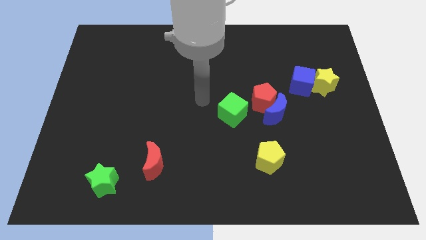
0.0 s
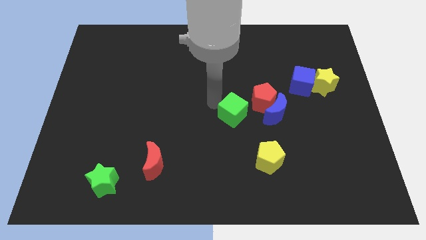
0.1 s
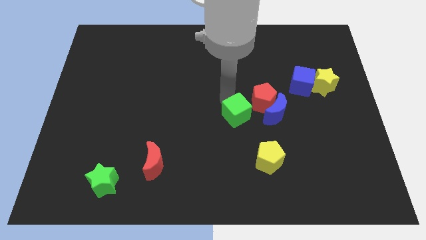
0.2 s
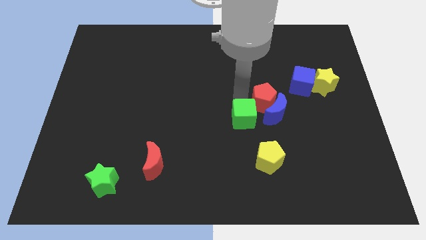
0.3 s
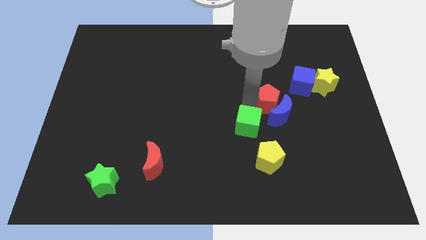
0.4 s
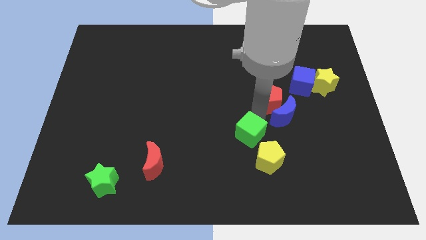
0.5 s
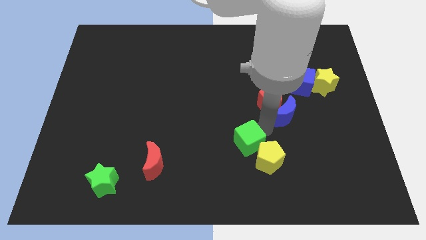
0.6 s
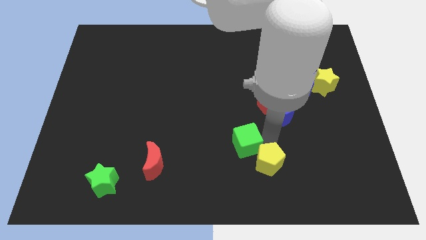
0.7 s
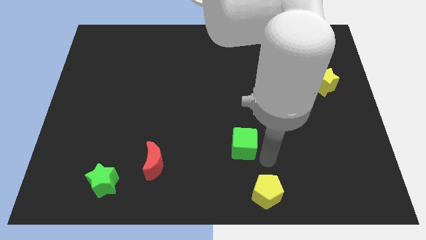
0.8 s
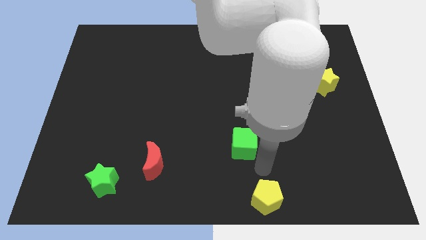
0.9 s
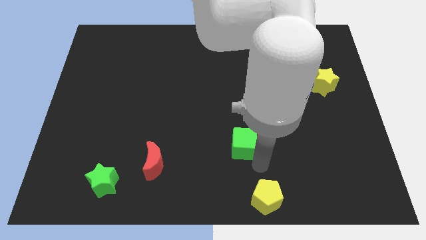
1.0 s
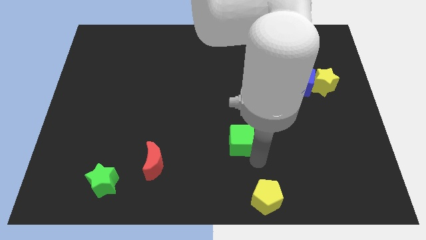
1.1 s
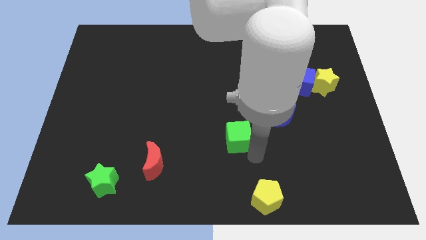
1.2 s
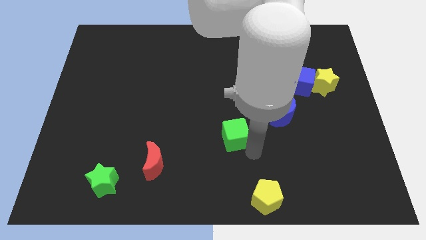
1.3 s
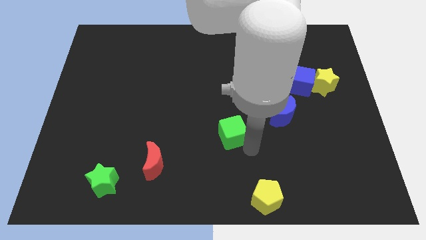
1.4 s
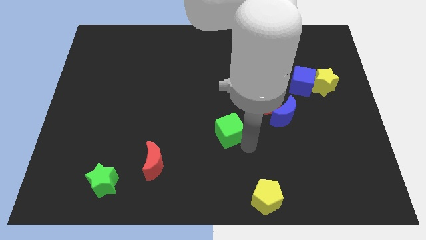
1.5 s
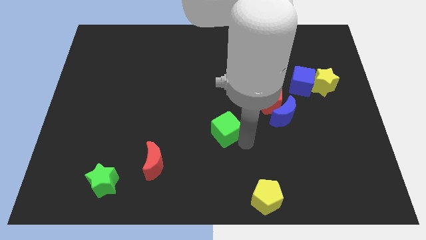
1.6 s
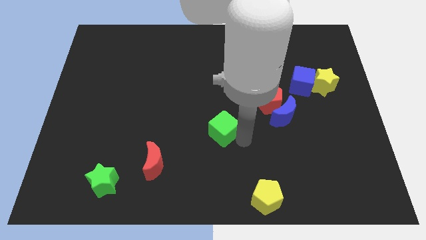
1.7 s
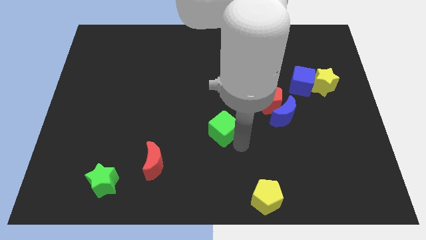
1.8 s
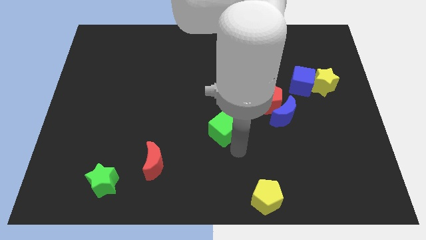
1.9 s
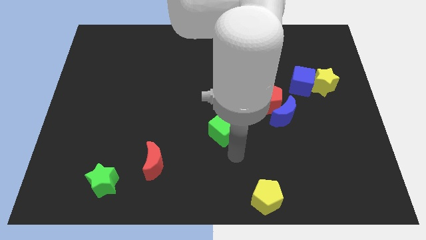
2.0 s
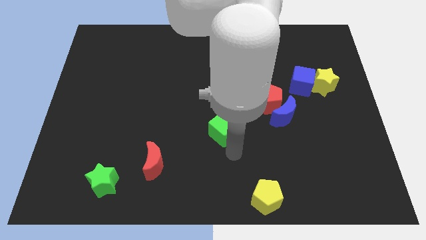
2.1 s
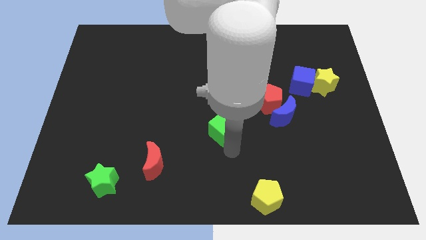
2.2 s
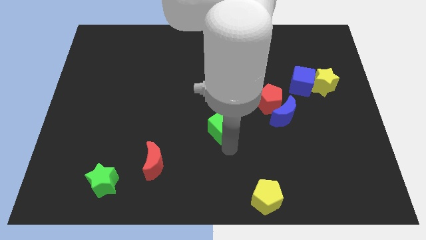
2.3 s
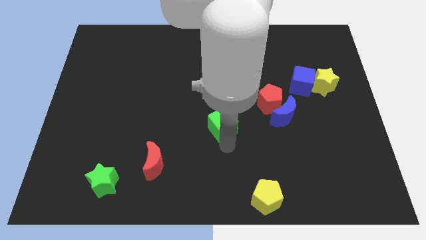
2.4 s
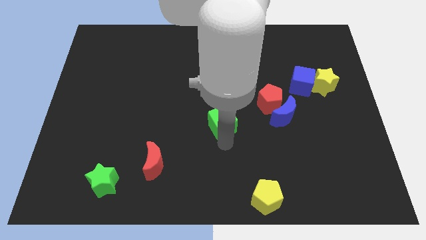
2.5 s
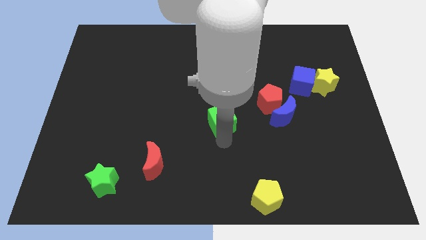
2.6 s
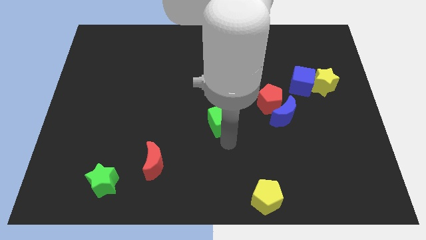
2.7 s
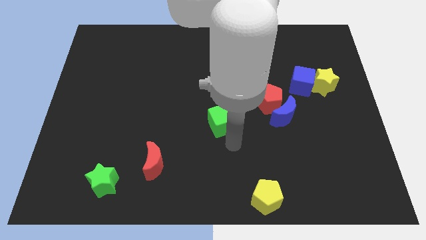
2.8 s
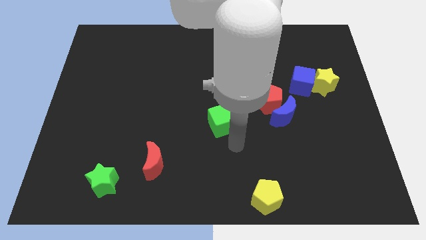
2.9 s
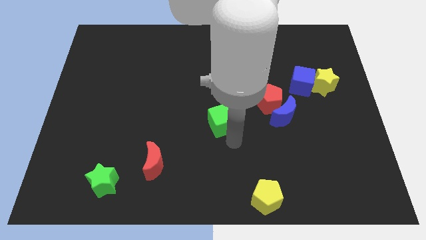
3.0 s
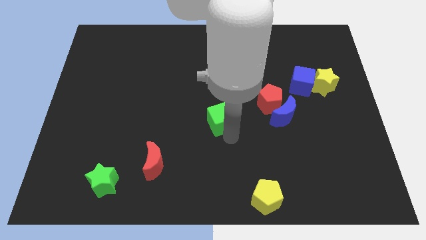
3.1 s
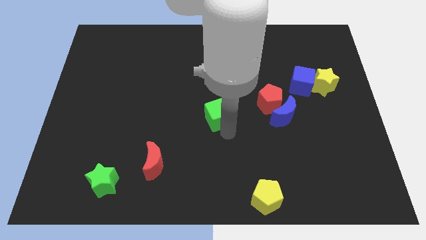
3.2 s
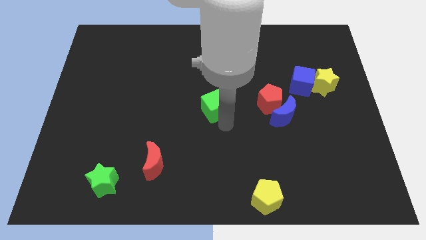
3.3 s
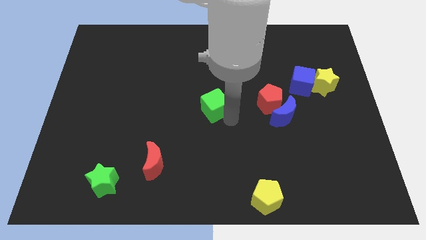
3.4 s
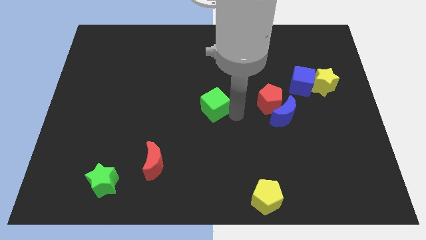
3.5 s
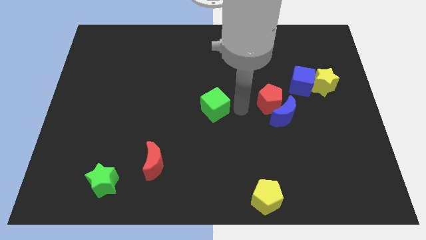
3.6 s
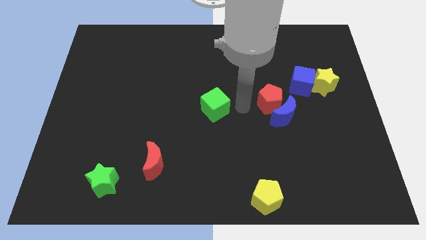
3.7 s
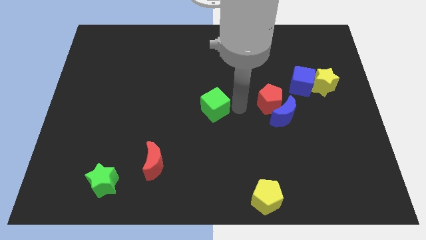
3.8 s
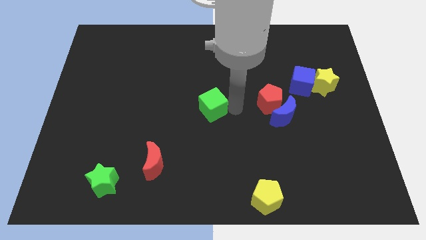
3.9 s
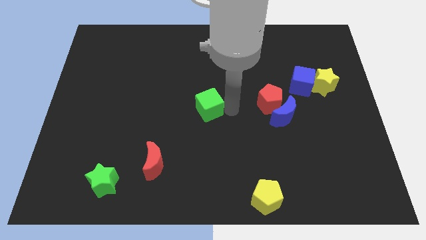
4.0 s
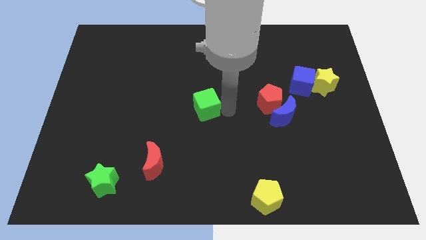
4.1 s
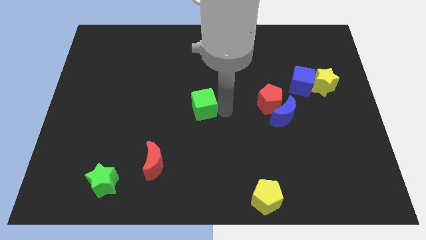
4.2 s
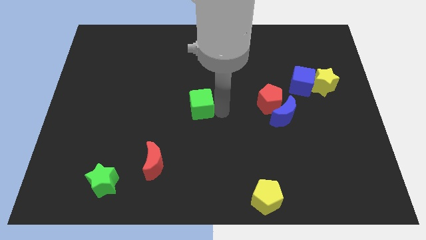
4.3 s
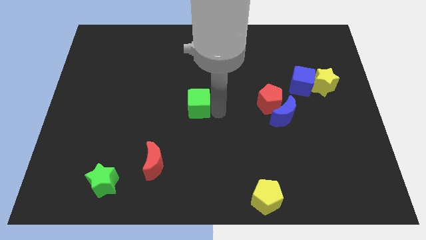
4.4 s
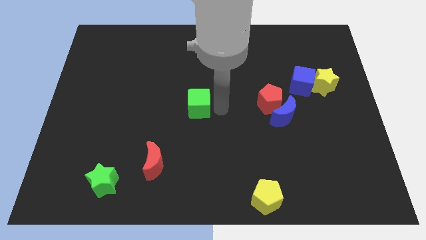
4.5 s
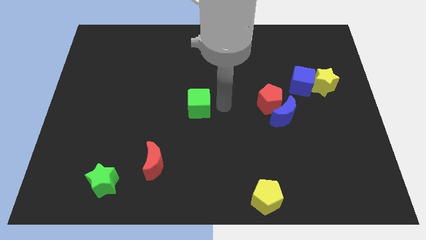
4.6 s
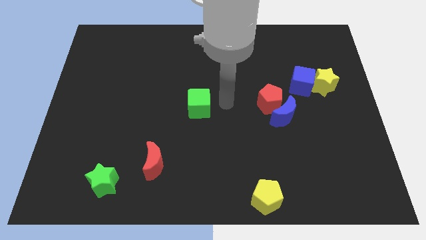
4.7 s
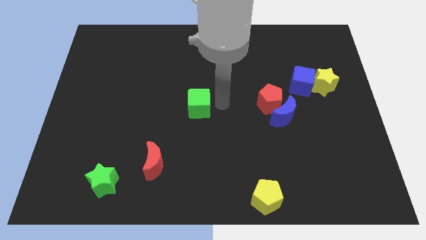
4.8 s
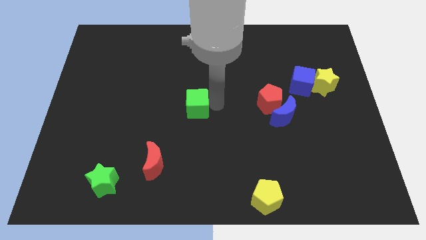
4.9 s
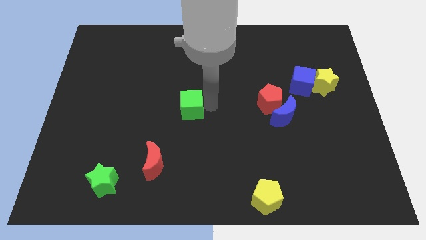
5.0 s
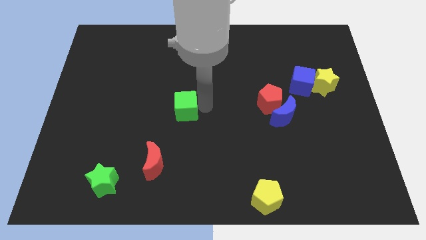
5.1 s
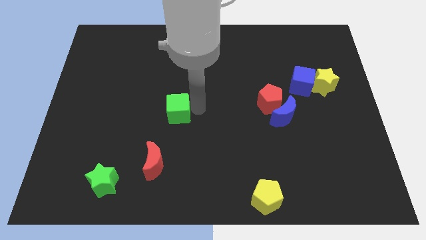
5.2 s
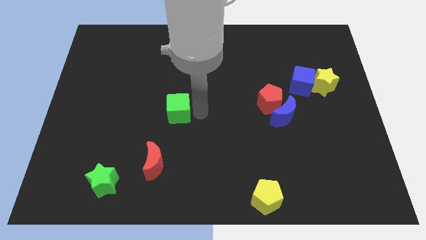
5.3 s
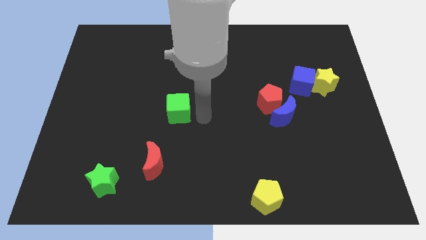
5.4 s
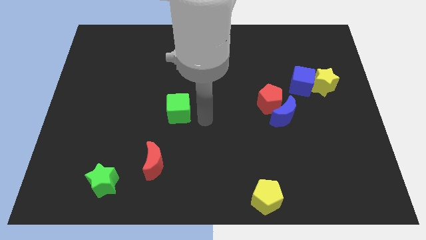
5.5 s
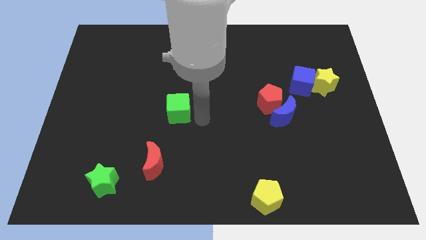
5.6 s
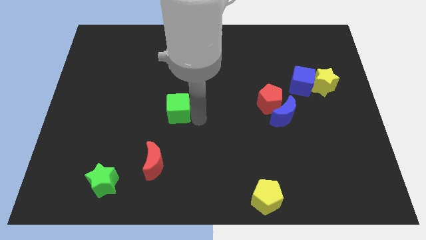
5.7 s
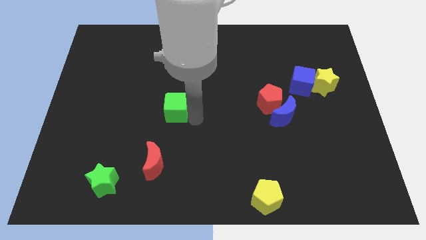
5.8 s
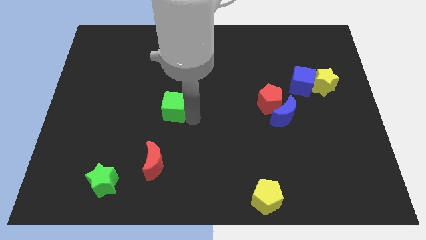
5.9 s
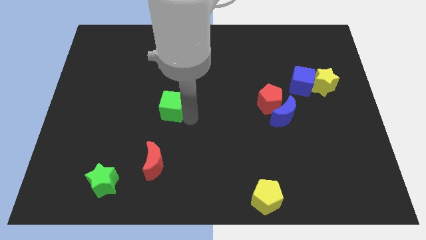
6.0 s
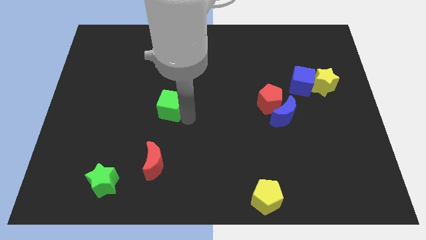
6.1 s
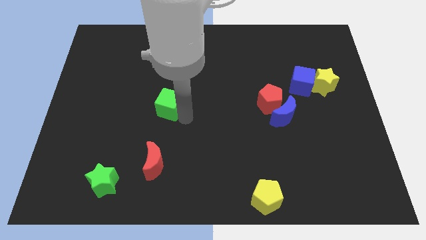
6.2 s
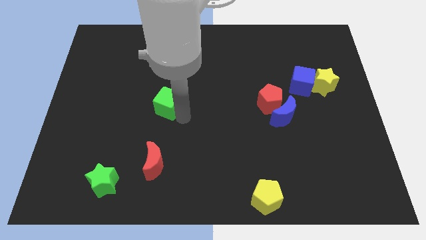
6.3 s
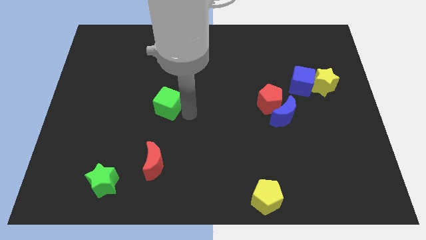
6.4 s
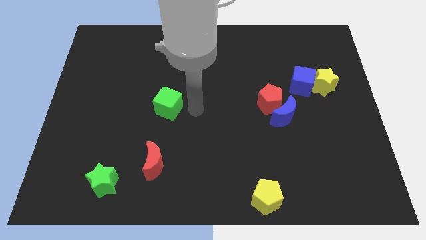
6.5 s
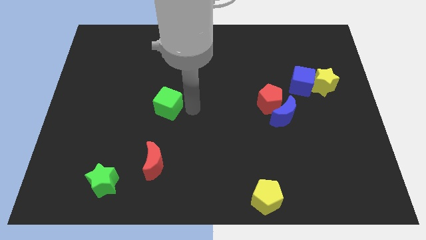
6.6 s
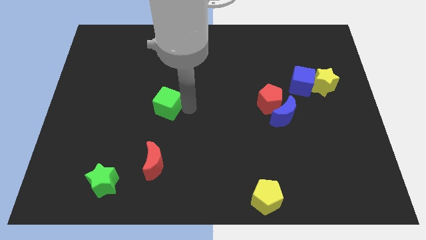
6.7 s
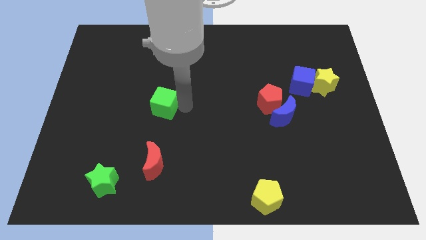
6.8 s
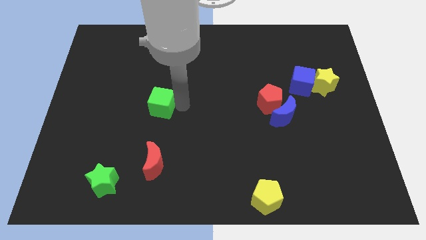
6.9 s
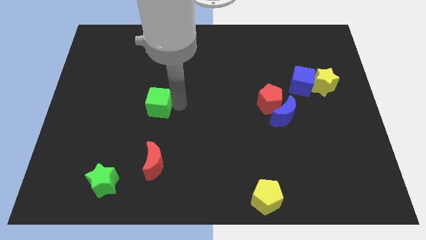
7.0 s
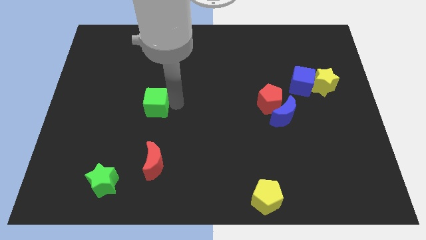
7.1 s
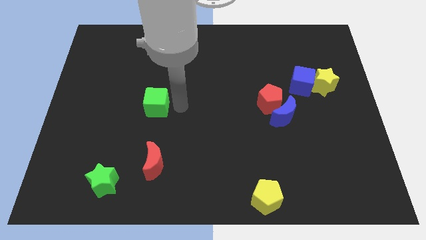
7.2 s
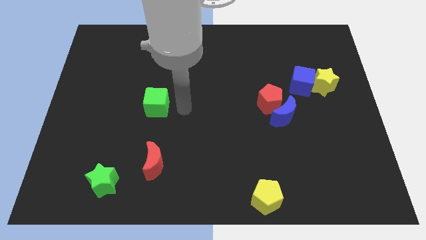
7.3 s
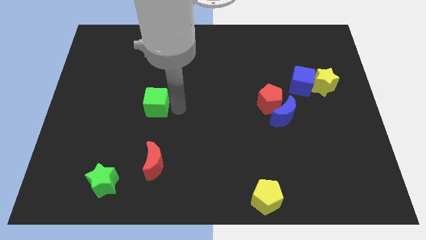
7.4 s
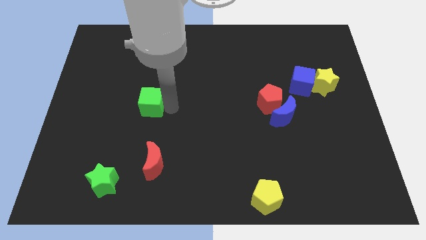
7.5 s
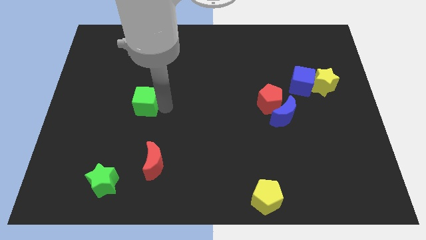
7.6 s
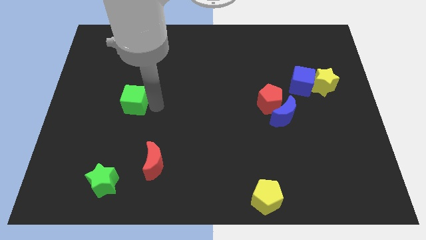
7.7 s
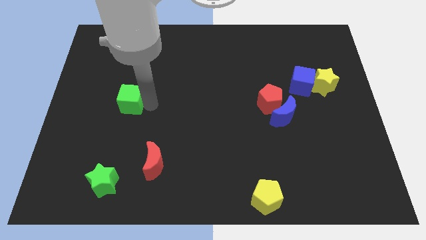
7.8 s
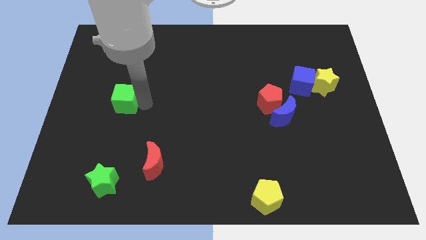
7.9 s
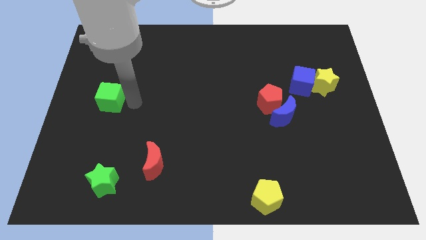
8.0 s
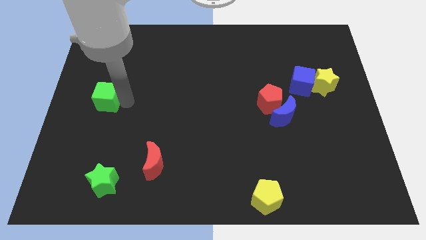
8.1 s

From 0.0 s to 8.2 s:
put the green cube to the center left
